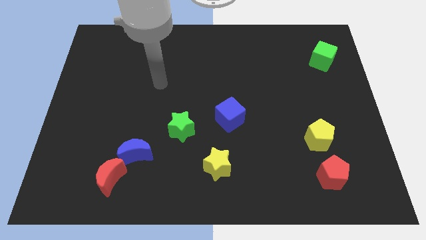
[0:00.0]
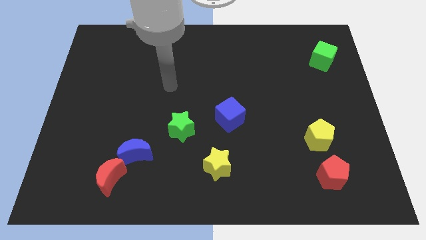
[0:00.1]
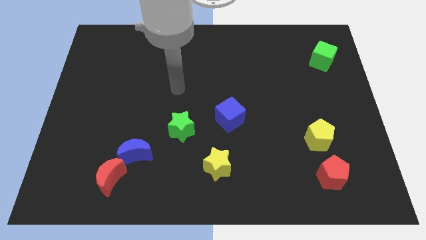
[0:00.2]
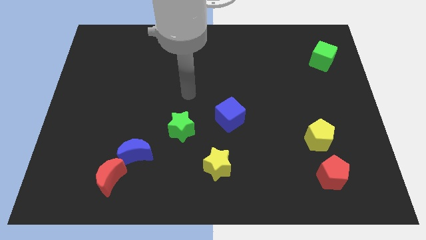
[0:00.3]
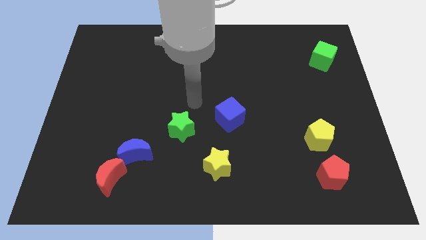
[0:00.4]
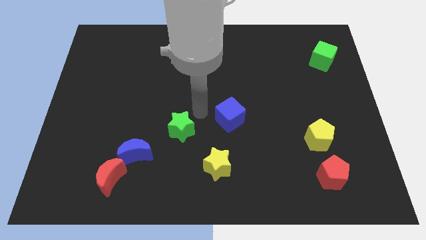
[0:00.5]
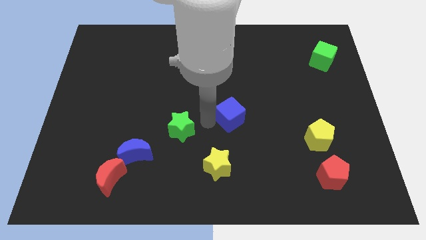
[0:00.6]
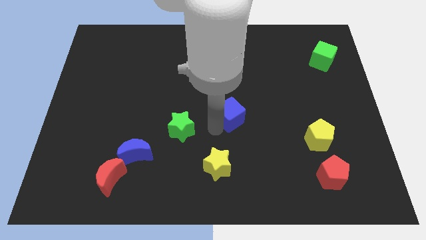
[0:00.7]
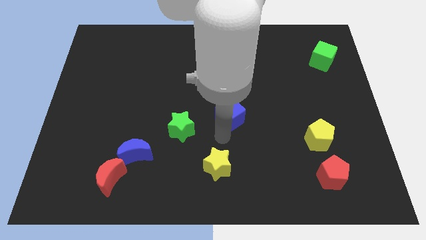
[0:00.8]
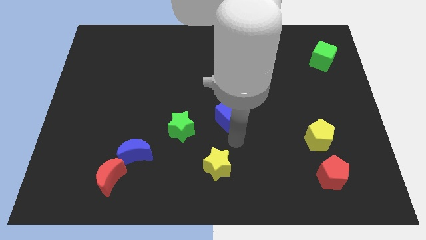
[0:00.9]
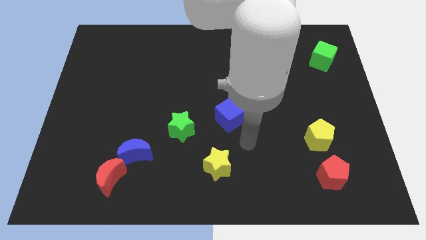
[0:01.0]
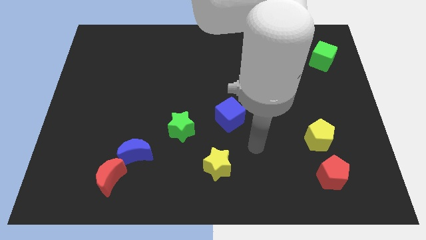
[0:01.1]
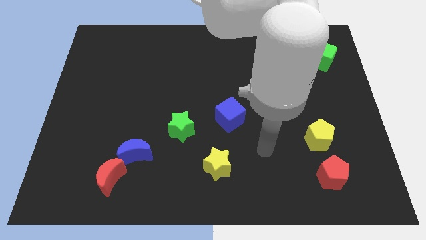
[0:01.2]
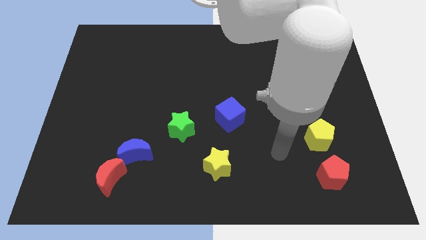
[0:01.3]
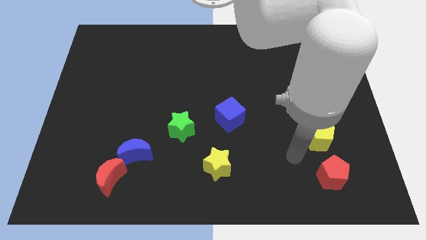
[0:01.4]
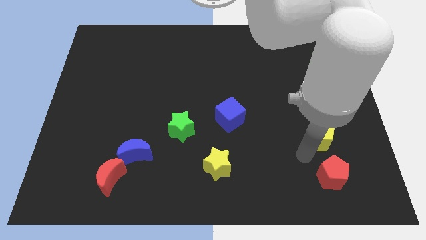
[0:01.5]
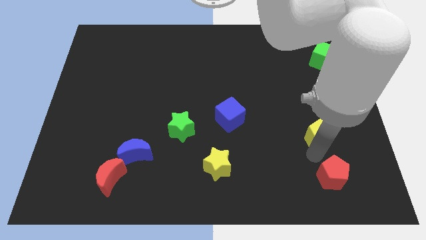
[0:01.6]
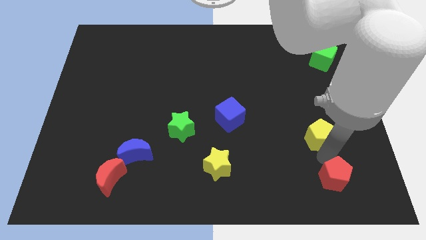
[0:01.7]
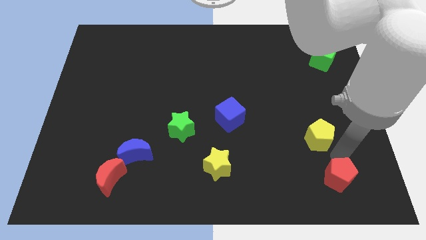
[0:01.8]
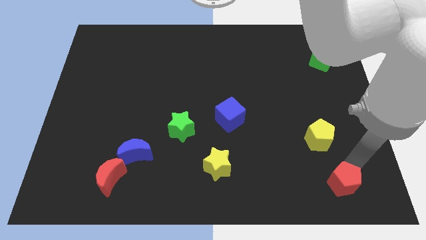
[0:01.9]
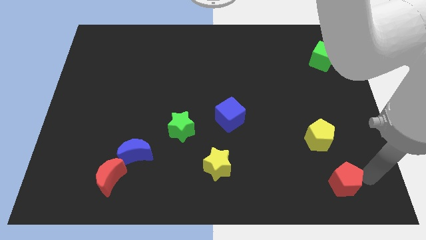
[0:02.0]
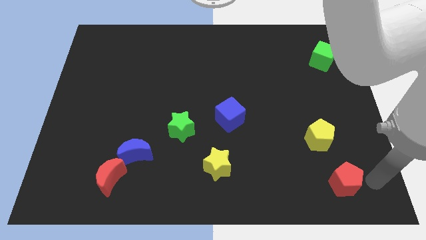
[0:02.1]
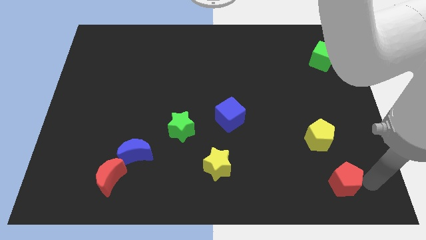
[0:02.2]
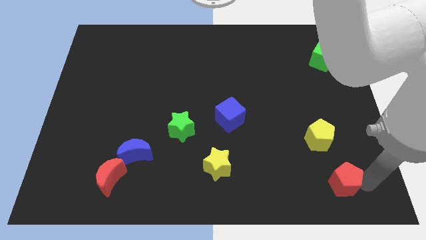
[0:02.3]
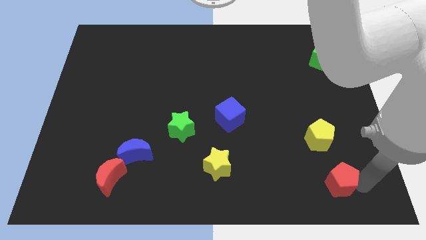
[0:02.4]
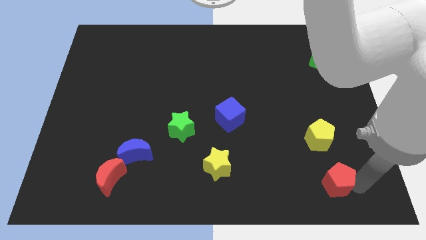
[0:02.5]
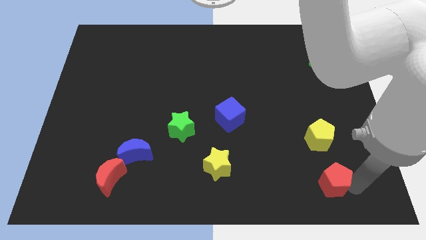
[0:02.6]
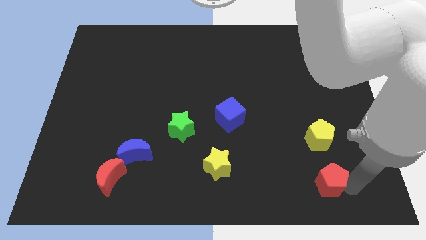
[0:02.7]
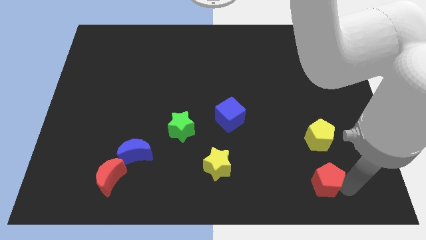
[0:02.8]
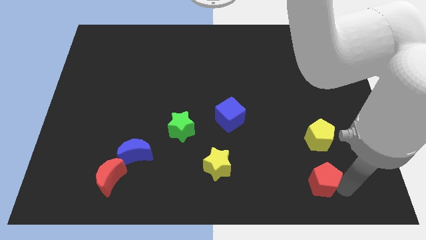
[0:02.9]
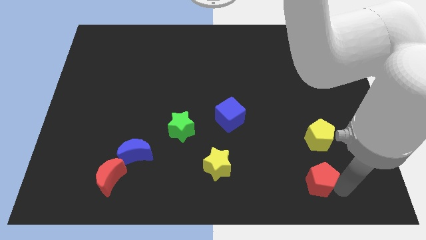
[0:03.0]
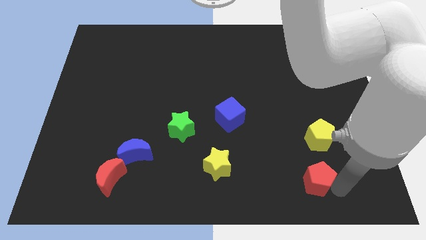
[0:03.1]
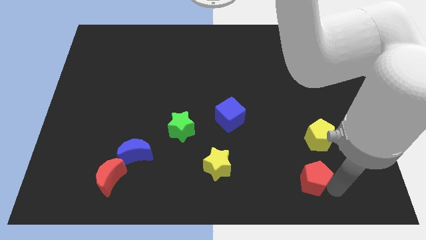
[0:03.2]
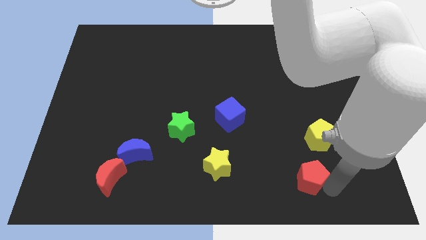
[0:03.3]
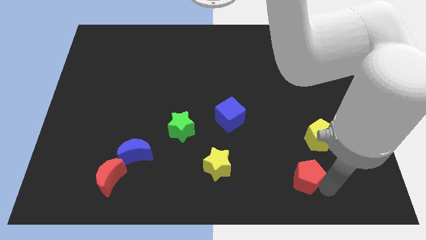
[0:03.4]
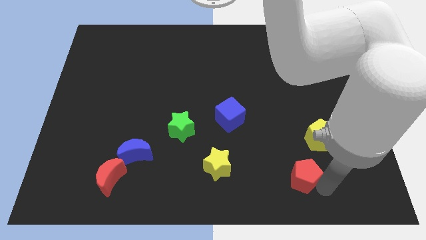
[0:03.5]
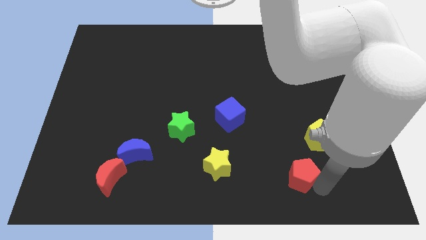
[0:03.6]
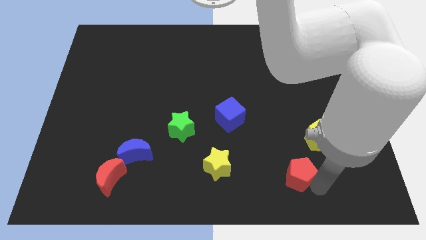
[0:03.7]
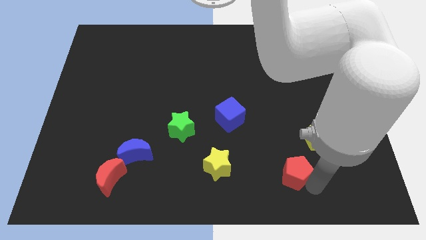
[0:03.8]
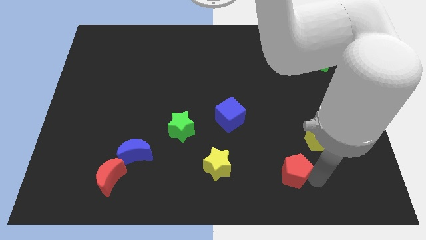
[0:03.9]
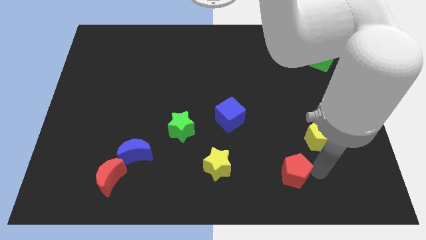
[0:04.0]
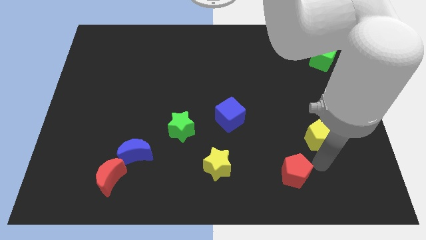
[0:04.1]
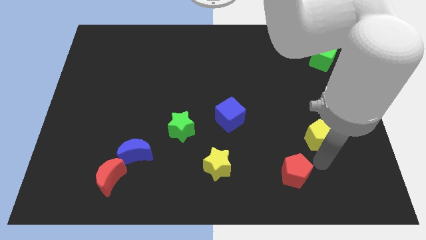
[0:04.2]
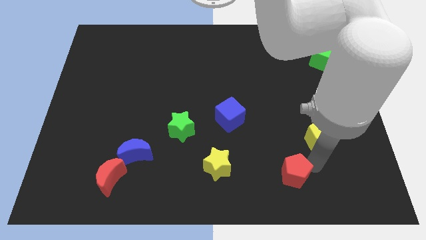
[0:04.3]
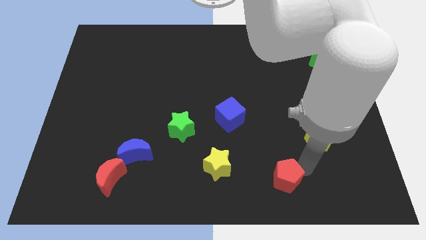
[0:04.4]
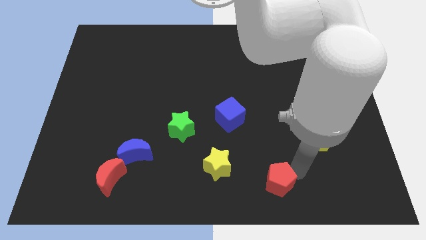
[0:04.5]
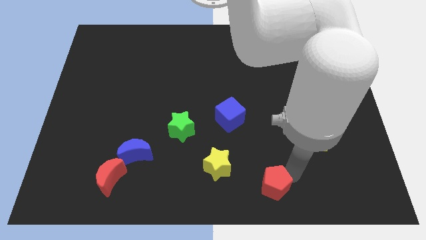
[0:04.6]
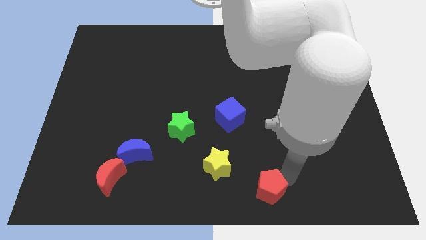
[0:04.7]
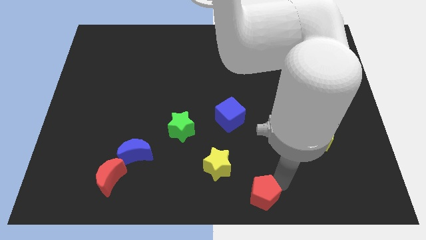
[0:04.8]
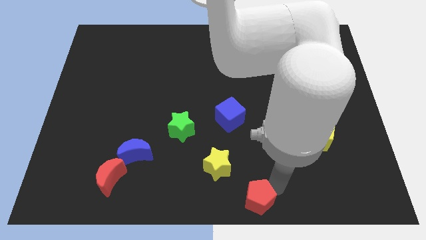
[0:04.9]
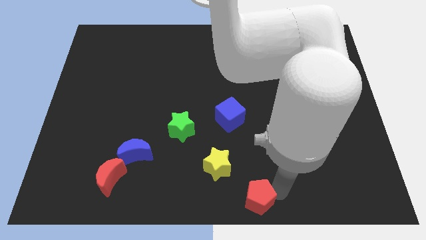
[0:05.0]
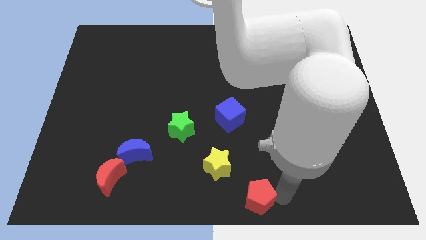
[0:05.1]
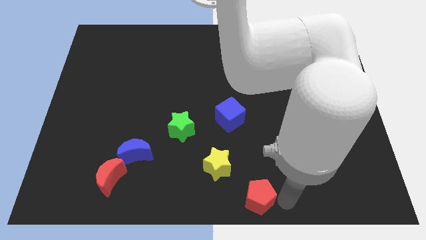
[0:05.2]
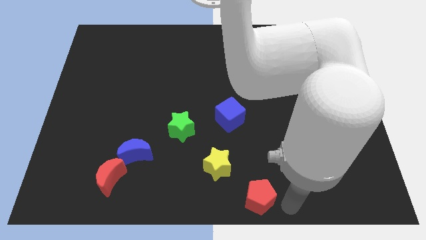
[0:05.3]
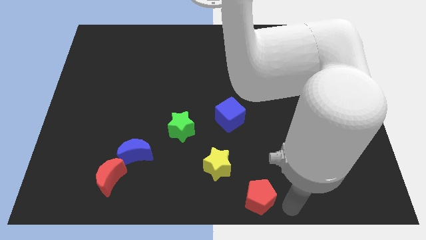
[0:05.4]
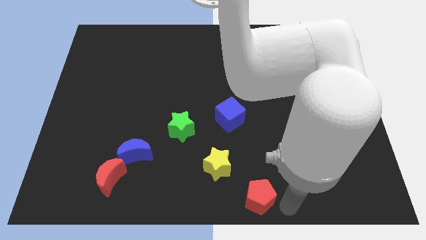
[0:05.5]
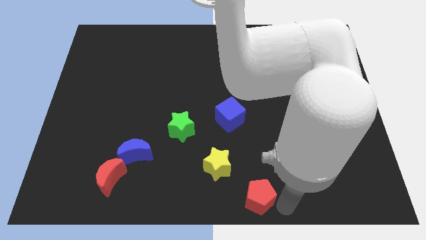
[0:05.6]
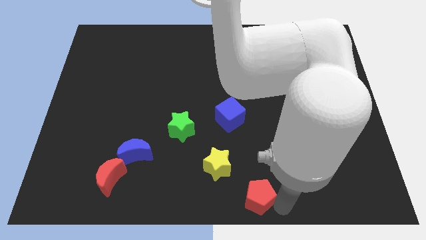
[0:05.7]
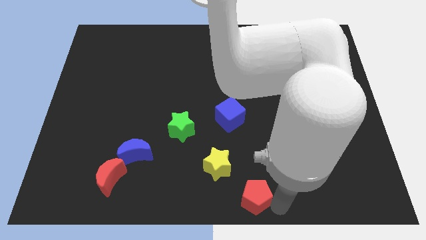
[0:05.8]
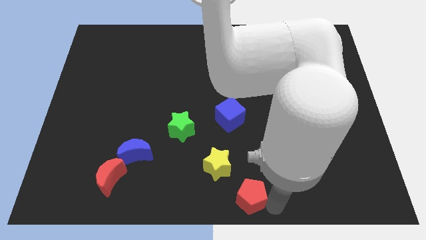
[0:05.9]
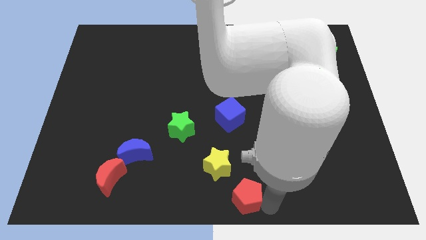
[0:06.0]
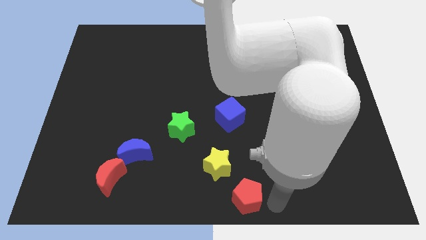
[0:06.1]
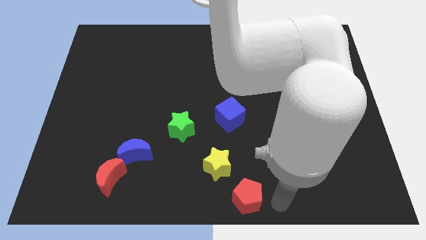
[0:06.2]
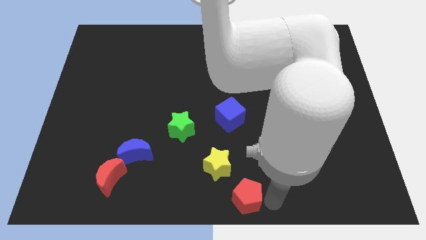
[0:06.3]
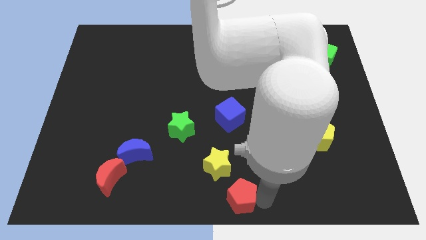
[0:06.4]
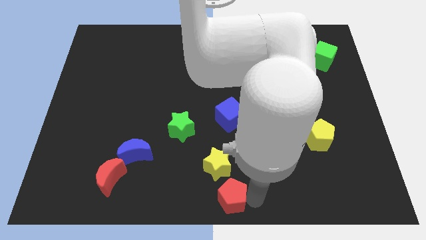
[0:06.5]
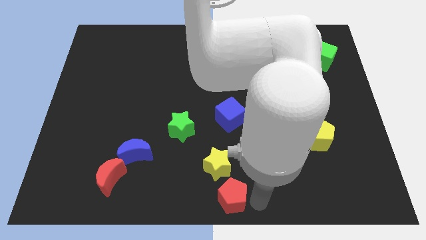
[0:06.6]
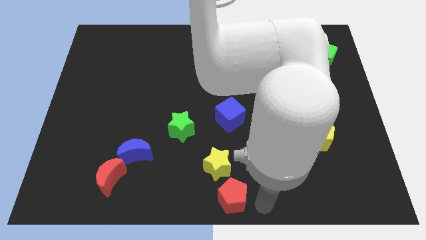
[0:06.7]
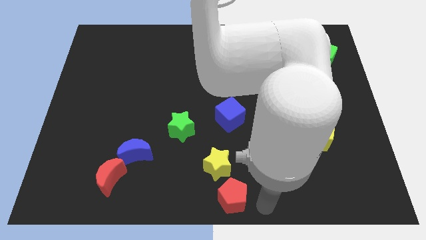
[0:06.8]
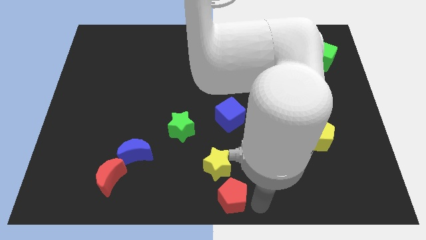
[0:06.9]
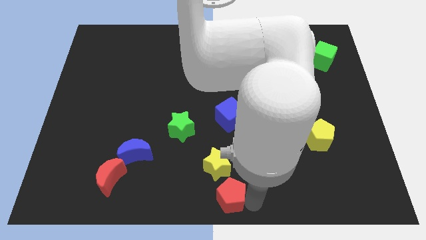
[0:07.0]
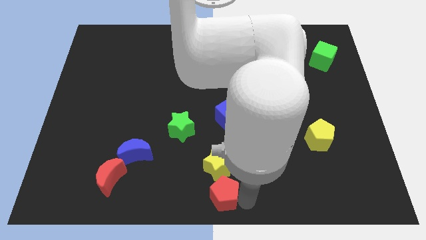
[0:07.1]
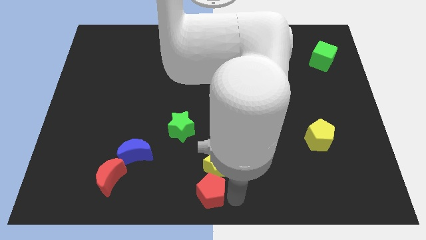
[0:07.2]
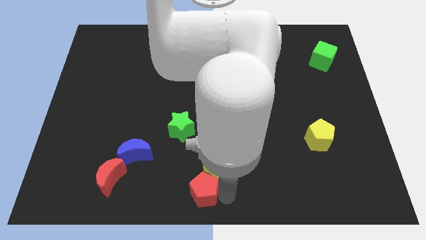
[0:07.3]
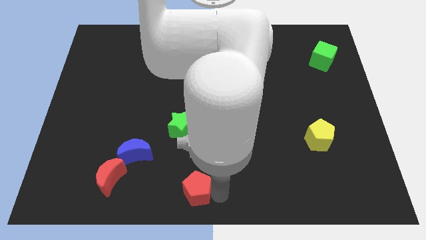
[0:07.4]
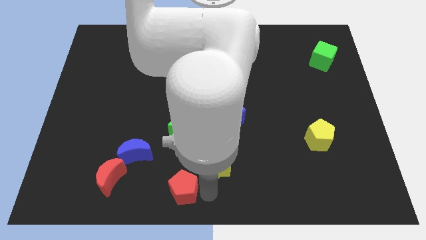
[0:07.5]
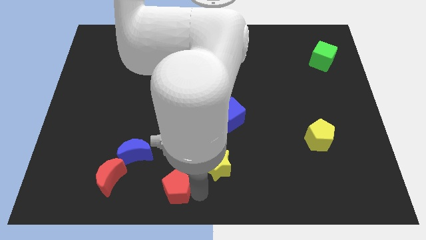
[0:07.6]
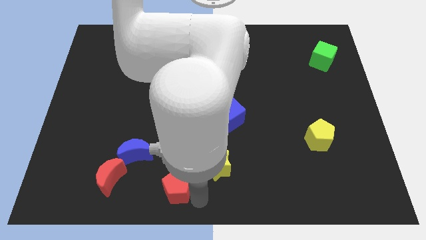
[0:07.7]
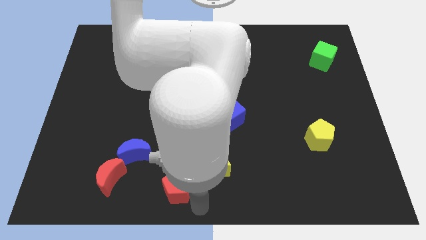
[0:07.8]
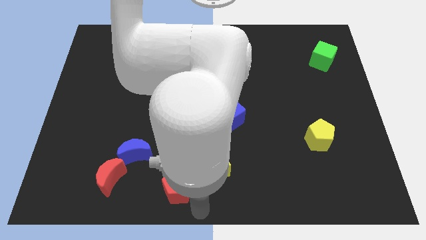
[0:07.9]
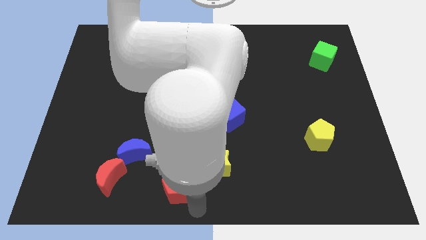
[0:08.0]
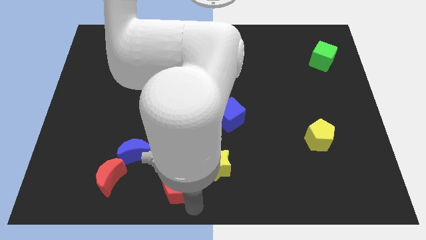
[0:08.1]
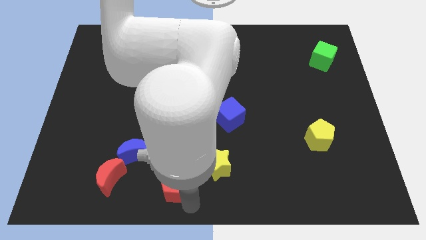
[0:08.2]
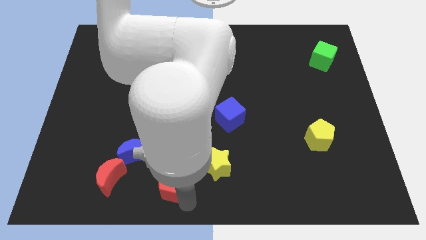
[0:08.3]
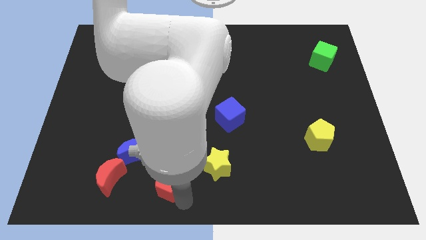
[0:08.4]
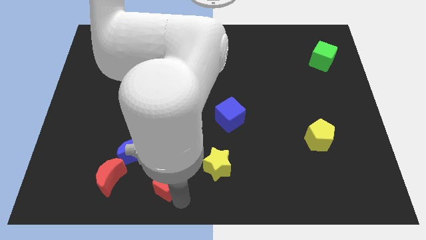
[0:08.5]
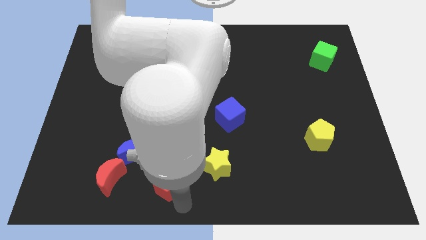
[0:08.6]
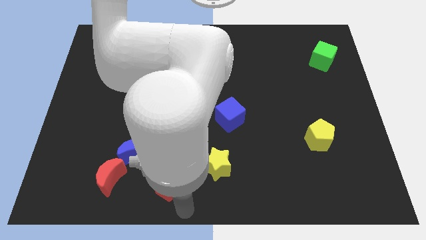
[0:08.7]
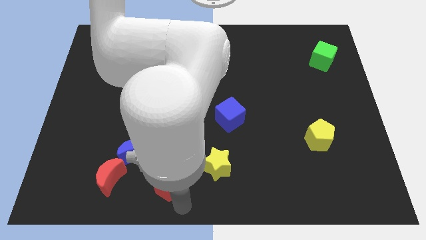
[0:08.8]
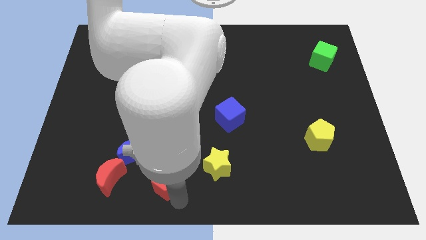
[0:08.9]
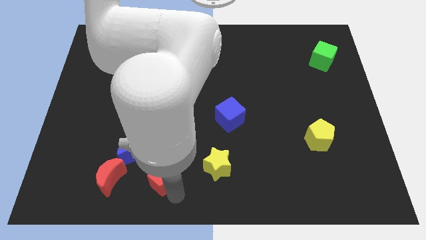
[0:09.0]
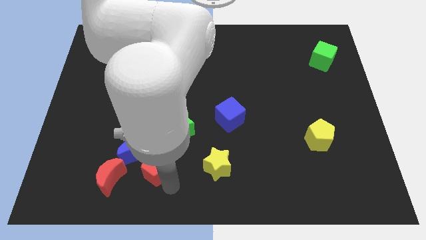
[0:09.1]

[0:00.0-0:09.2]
move the red pentagon close to the blue moon
